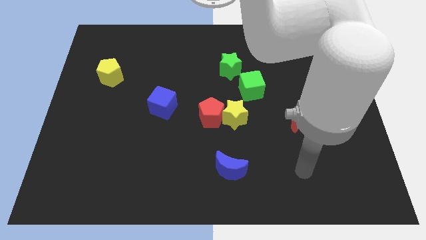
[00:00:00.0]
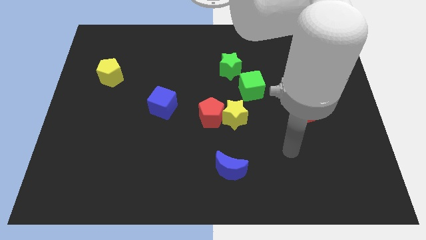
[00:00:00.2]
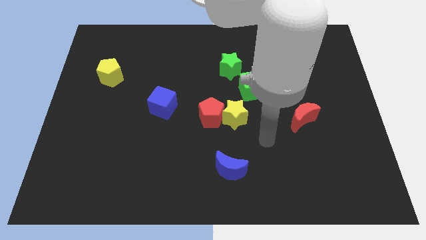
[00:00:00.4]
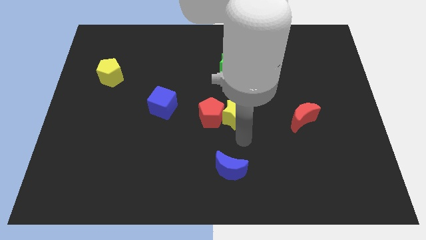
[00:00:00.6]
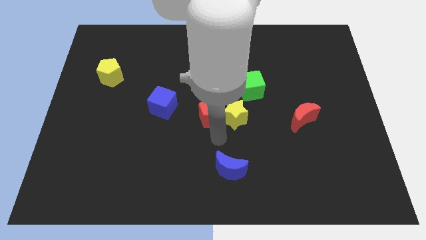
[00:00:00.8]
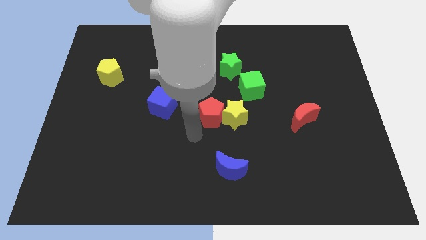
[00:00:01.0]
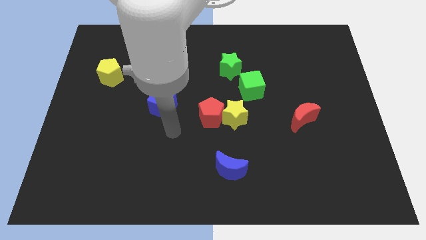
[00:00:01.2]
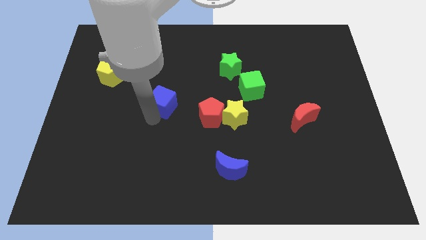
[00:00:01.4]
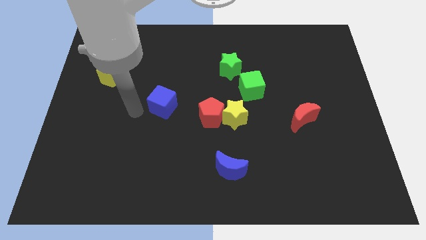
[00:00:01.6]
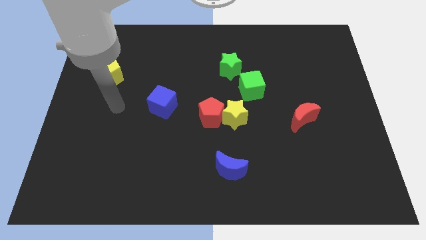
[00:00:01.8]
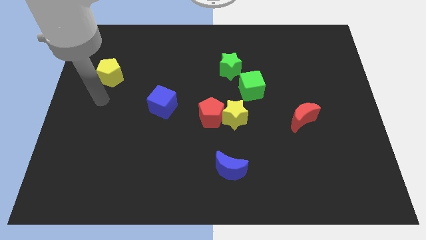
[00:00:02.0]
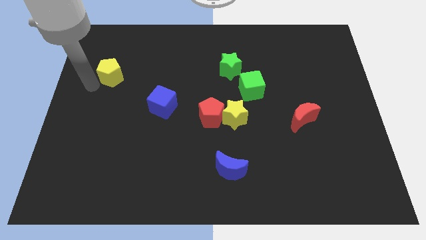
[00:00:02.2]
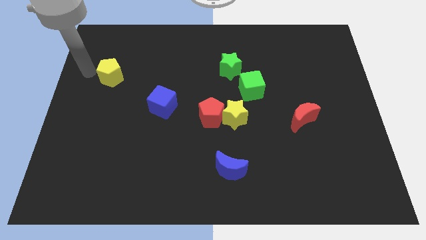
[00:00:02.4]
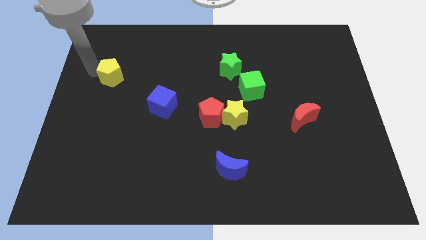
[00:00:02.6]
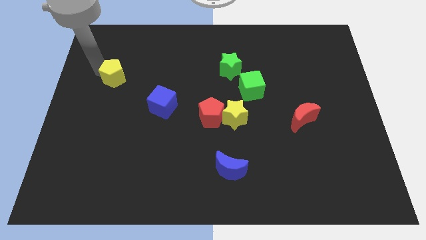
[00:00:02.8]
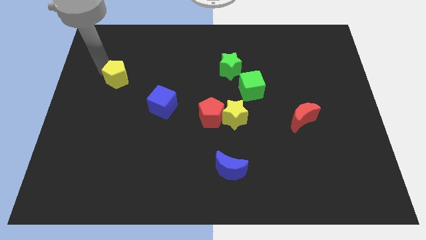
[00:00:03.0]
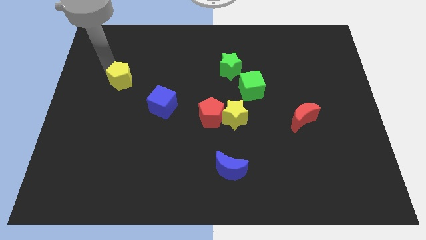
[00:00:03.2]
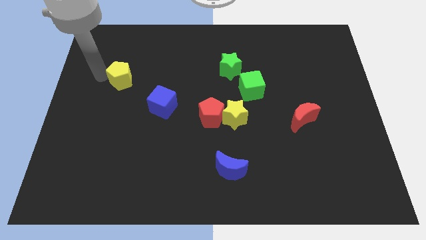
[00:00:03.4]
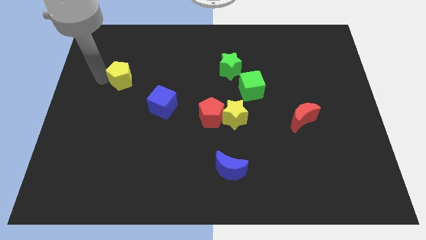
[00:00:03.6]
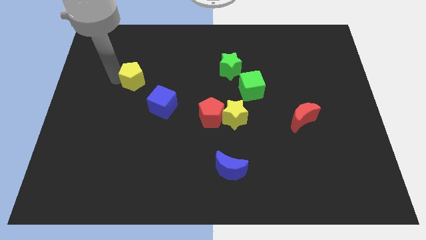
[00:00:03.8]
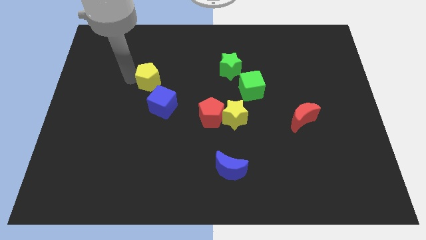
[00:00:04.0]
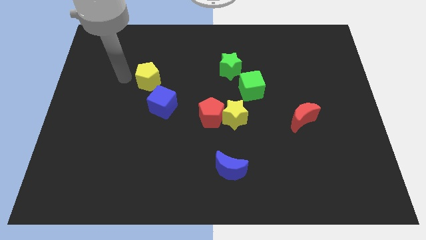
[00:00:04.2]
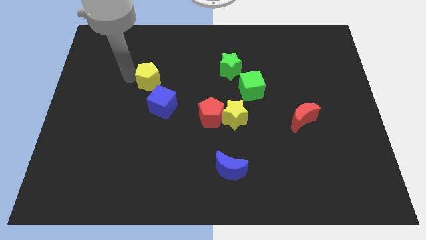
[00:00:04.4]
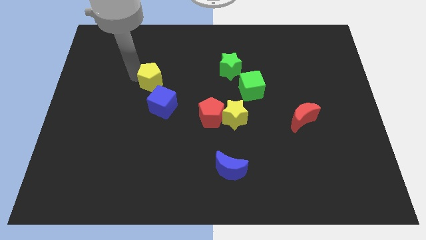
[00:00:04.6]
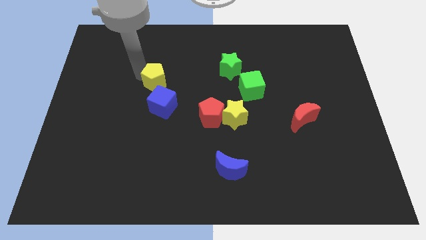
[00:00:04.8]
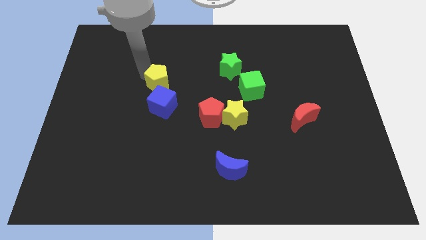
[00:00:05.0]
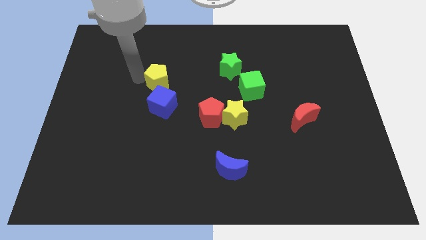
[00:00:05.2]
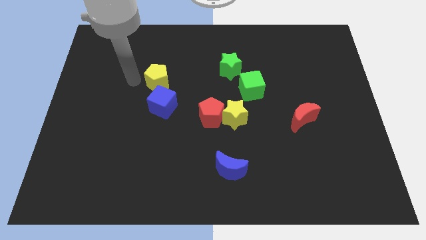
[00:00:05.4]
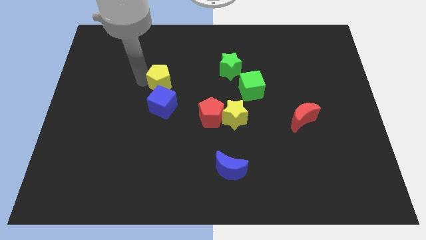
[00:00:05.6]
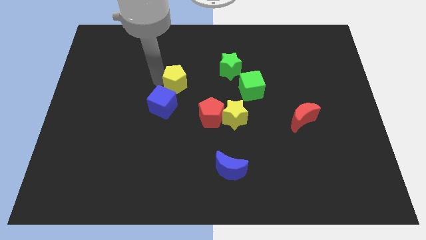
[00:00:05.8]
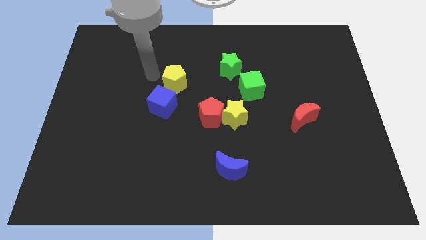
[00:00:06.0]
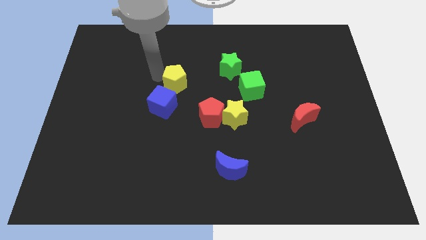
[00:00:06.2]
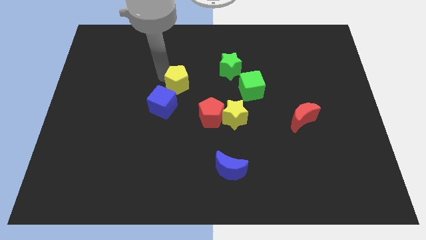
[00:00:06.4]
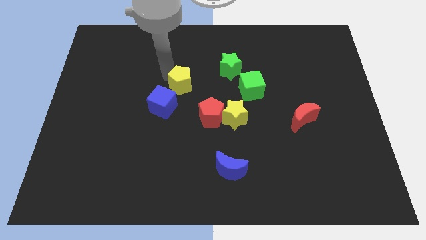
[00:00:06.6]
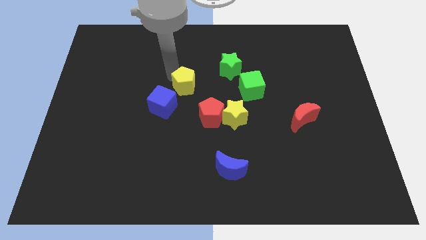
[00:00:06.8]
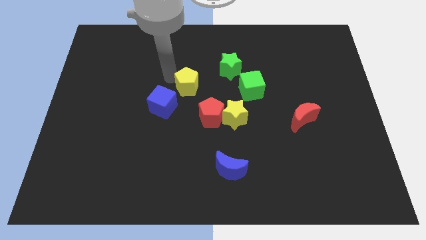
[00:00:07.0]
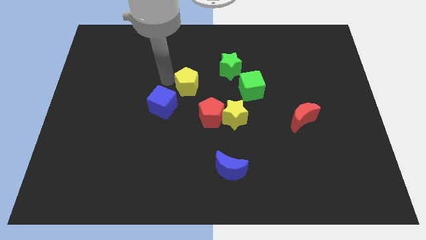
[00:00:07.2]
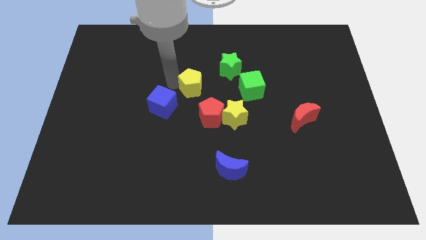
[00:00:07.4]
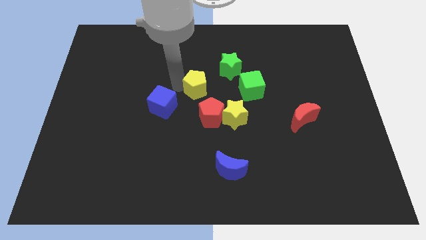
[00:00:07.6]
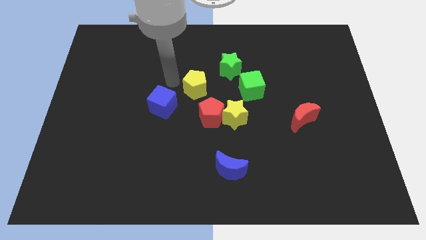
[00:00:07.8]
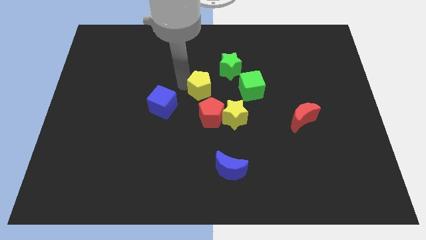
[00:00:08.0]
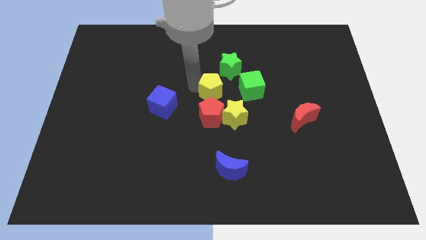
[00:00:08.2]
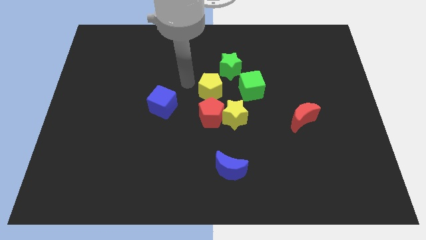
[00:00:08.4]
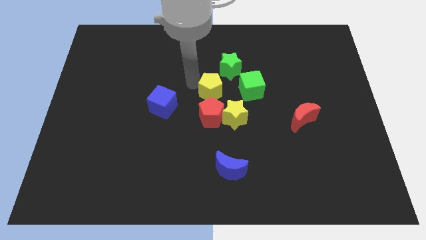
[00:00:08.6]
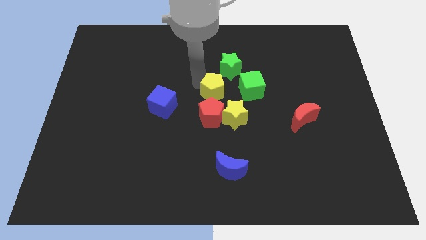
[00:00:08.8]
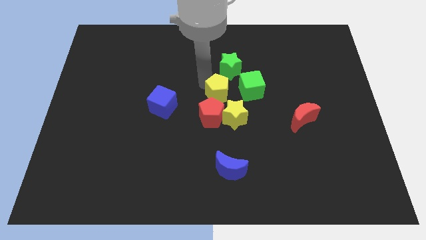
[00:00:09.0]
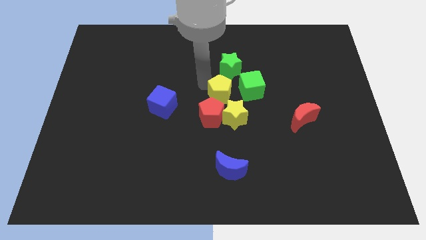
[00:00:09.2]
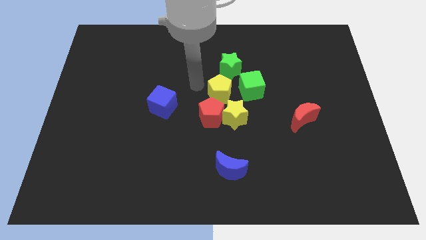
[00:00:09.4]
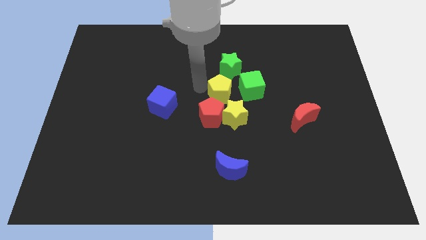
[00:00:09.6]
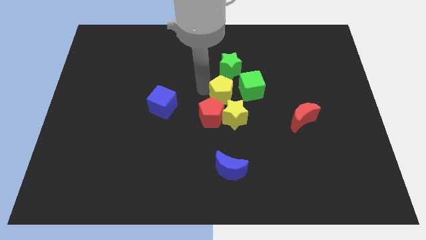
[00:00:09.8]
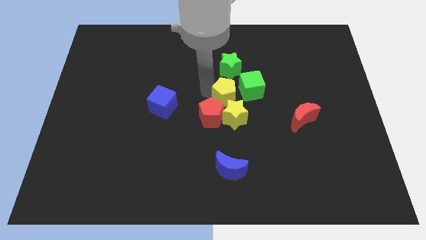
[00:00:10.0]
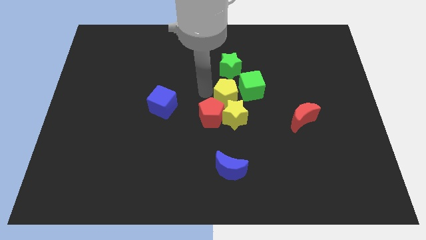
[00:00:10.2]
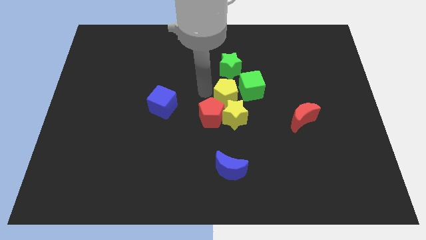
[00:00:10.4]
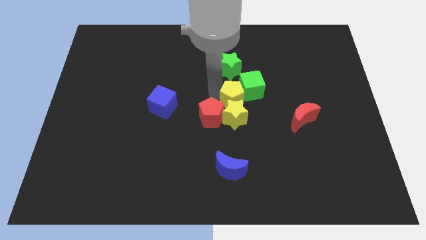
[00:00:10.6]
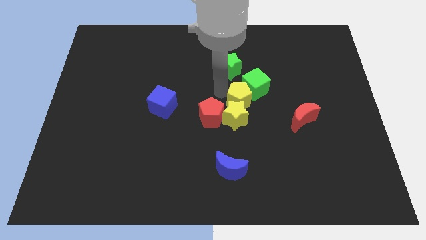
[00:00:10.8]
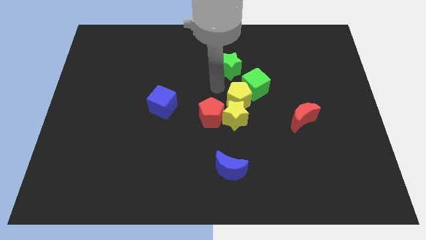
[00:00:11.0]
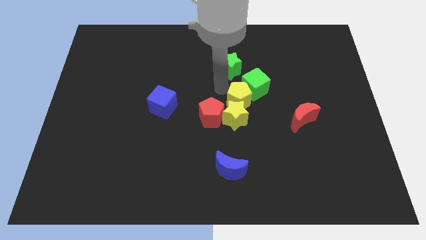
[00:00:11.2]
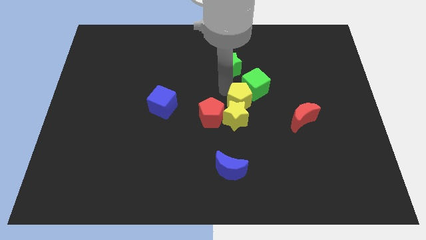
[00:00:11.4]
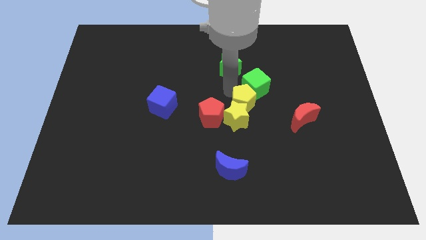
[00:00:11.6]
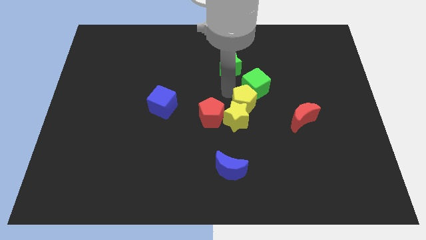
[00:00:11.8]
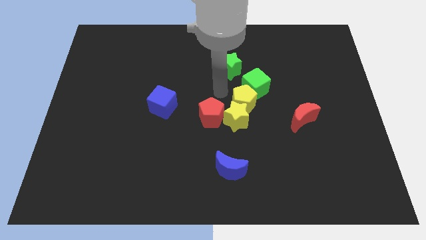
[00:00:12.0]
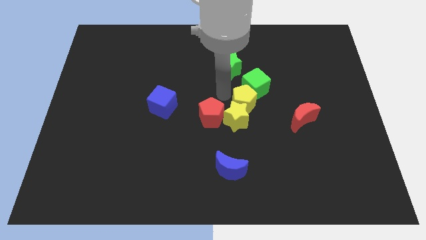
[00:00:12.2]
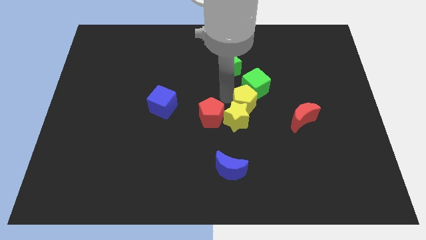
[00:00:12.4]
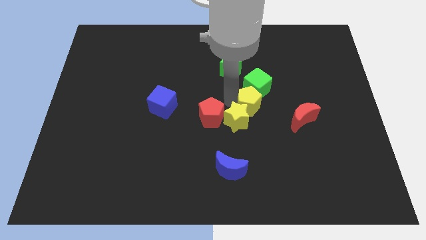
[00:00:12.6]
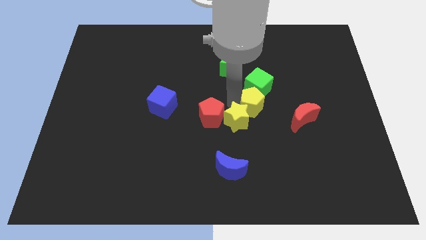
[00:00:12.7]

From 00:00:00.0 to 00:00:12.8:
put the yellow pentagon right of the yellow star
